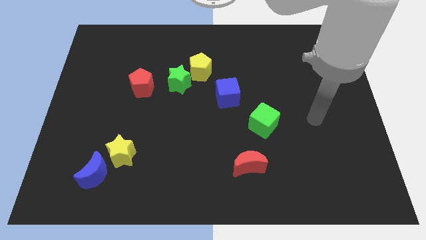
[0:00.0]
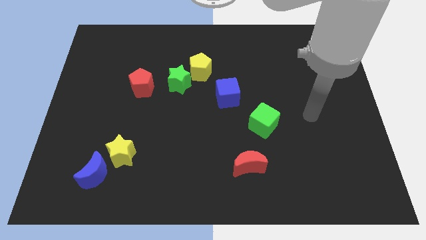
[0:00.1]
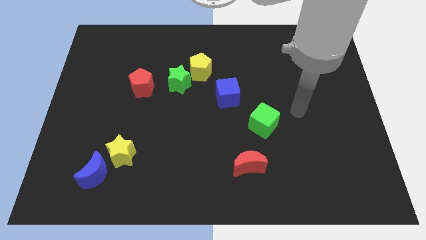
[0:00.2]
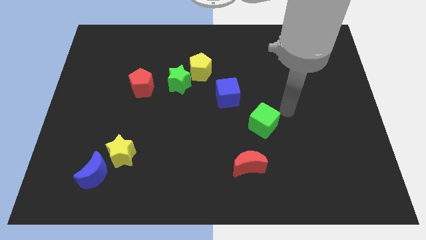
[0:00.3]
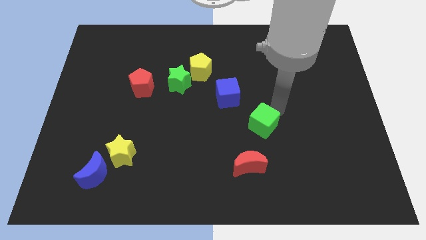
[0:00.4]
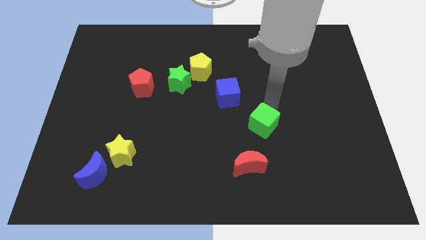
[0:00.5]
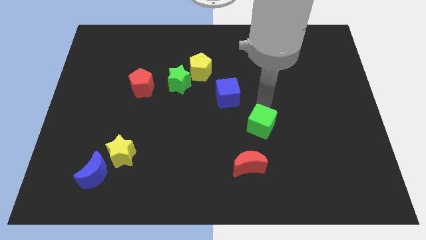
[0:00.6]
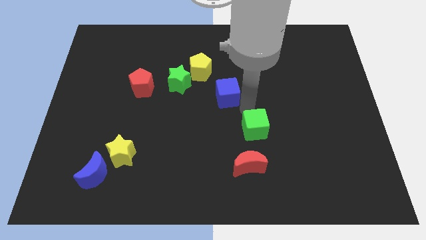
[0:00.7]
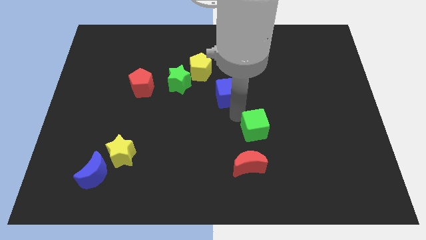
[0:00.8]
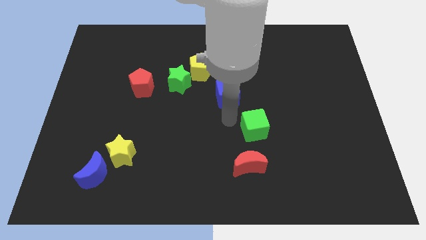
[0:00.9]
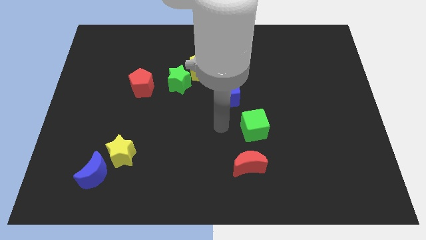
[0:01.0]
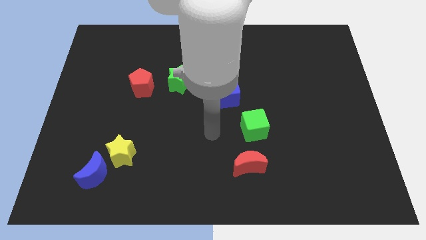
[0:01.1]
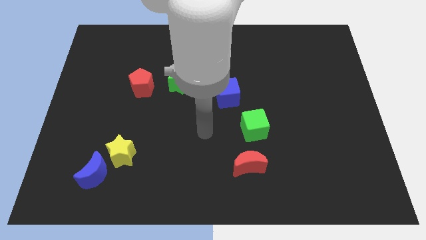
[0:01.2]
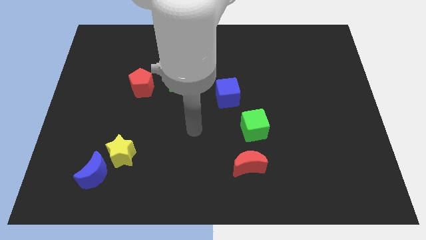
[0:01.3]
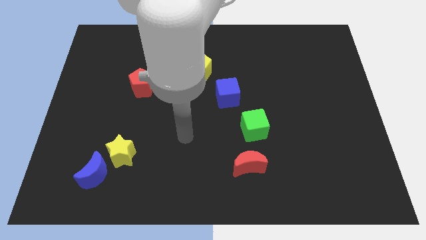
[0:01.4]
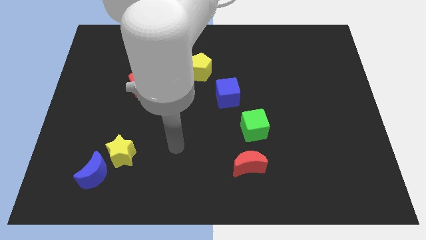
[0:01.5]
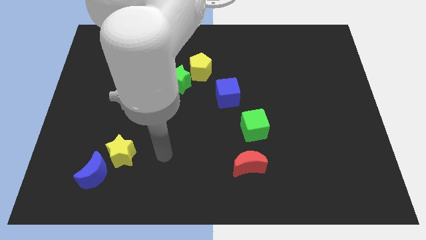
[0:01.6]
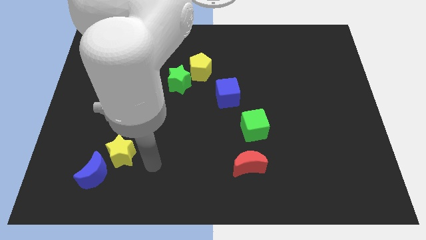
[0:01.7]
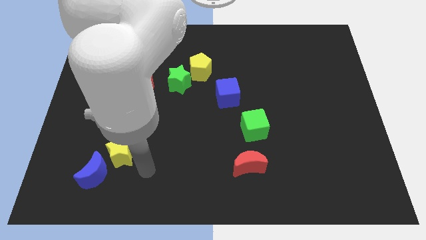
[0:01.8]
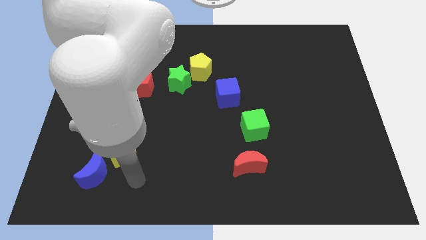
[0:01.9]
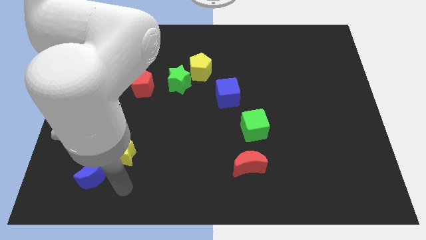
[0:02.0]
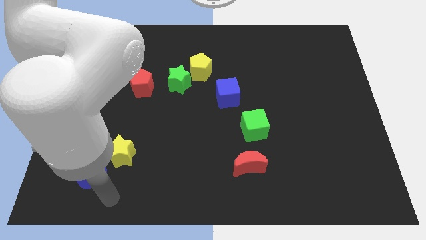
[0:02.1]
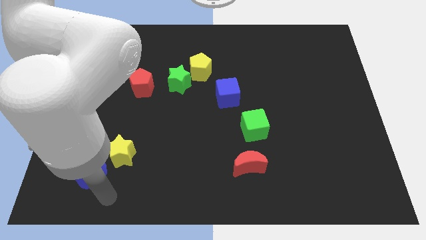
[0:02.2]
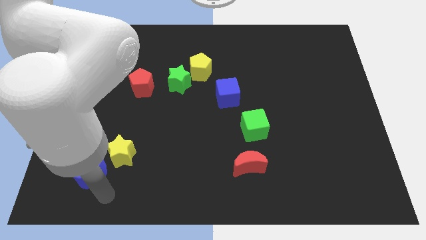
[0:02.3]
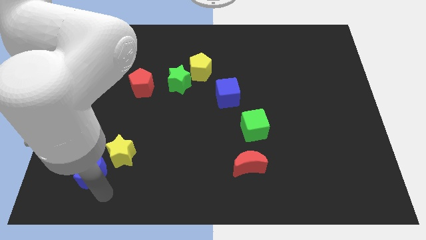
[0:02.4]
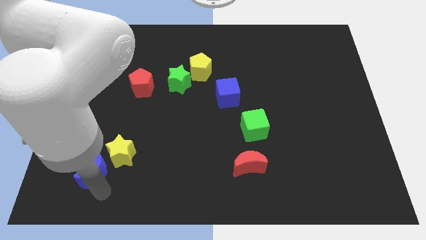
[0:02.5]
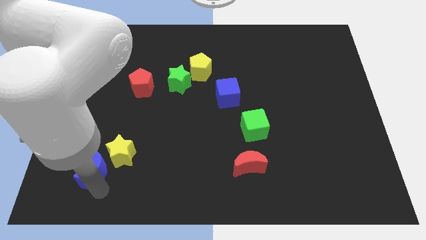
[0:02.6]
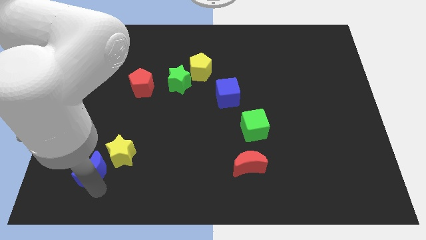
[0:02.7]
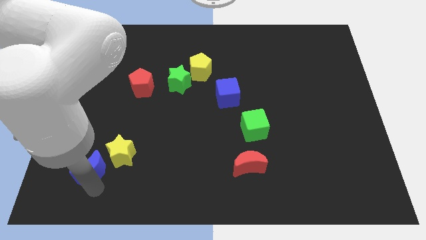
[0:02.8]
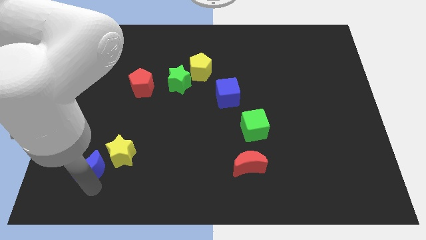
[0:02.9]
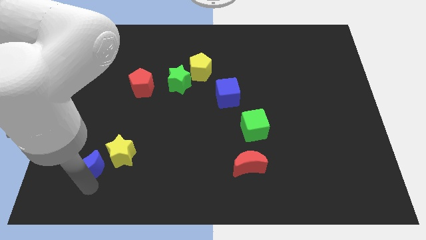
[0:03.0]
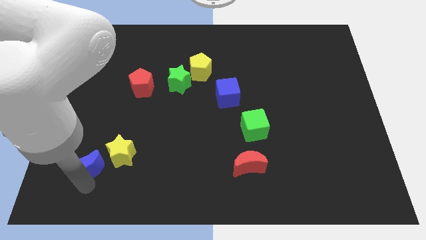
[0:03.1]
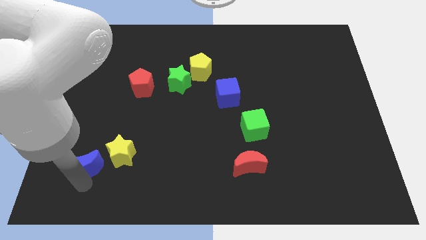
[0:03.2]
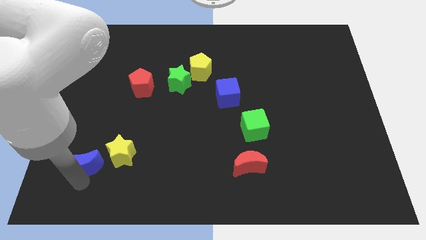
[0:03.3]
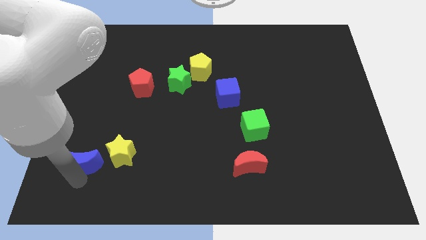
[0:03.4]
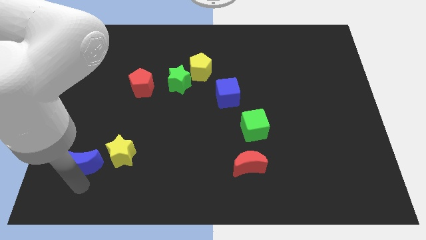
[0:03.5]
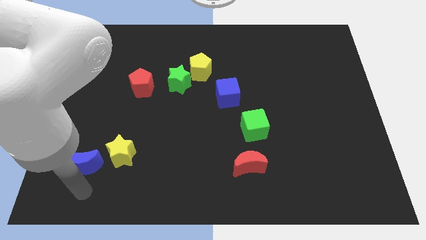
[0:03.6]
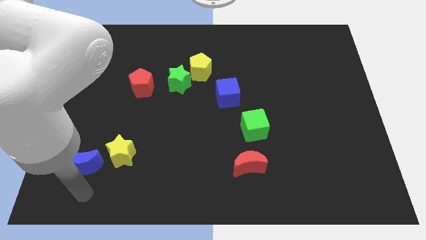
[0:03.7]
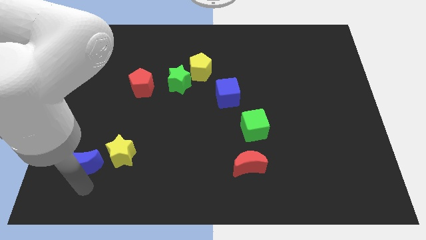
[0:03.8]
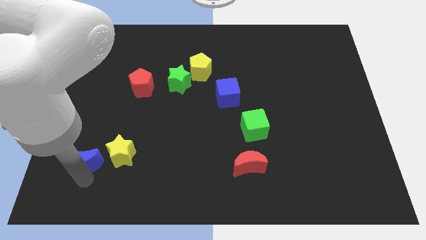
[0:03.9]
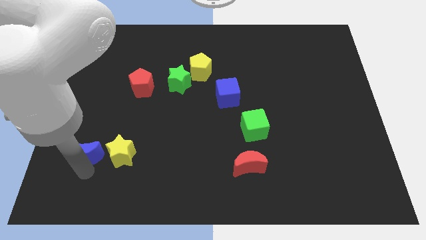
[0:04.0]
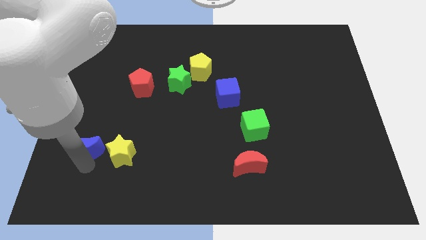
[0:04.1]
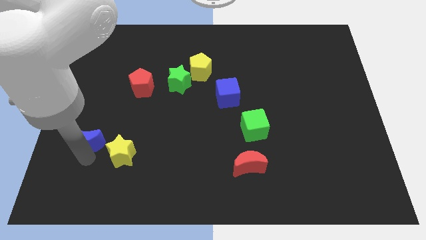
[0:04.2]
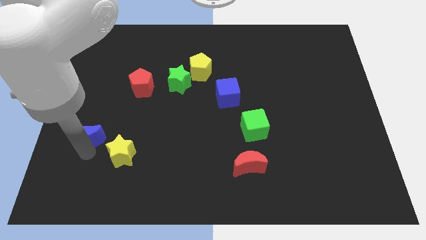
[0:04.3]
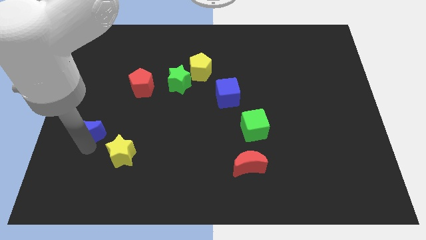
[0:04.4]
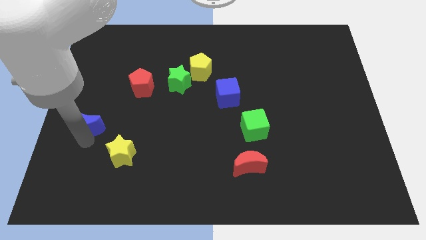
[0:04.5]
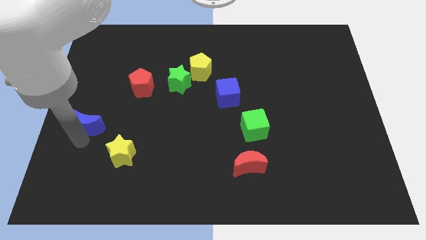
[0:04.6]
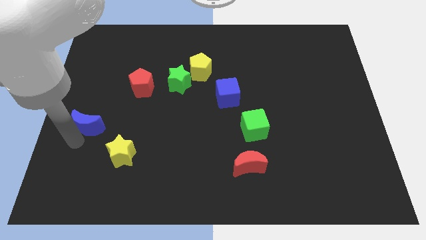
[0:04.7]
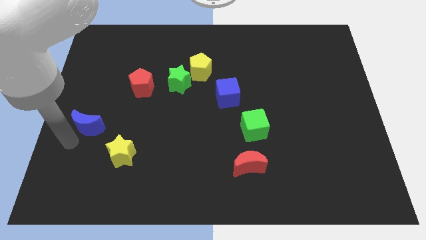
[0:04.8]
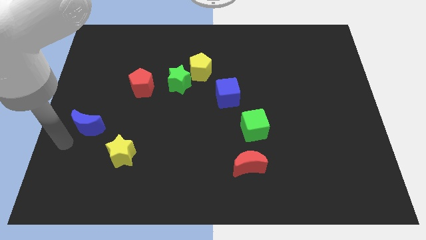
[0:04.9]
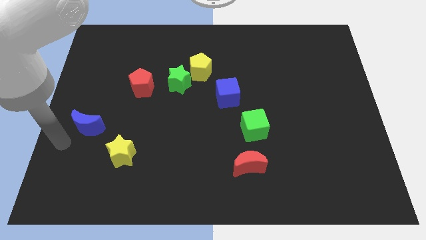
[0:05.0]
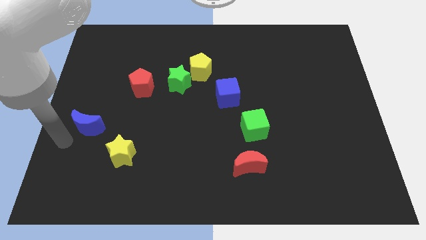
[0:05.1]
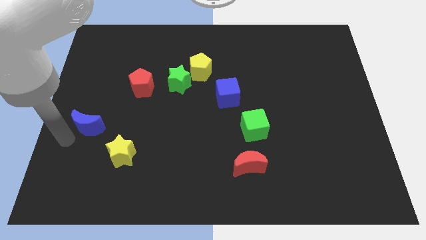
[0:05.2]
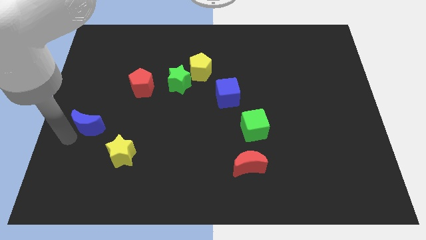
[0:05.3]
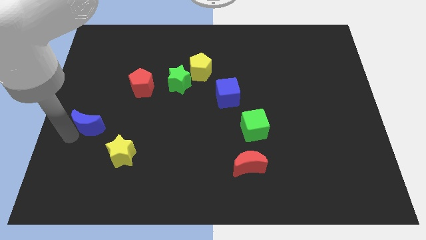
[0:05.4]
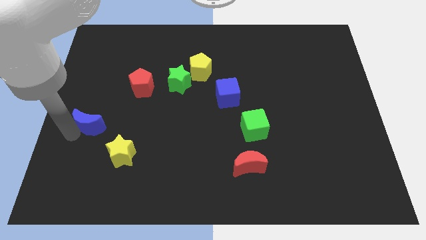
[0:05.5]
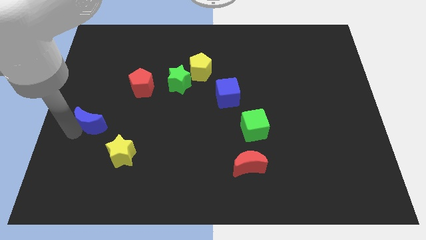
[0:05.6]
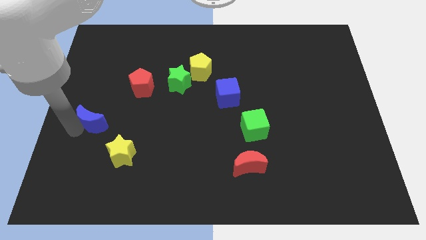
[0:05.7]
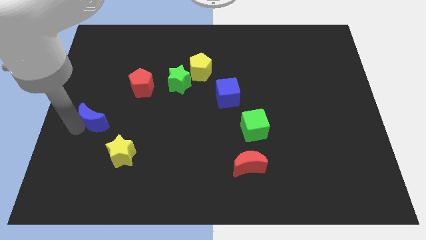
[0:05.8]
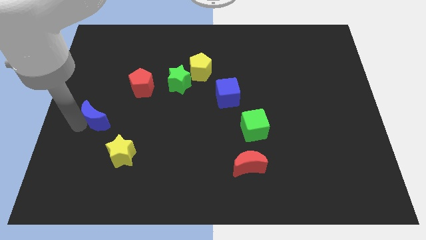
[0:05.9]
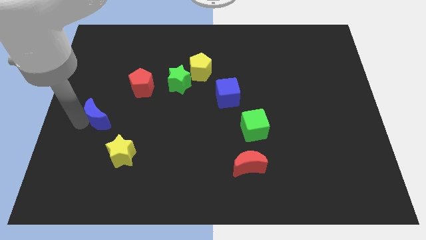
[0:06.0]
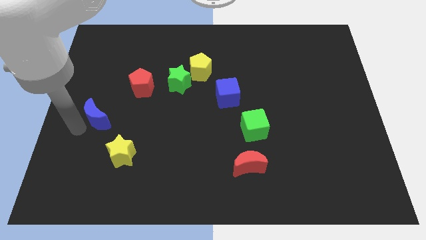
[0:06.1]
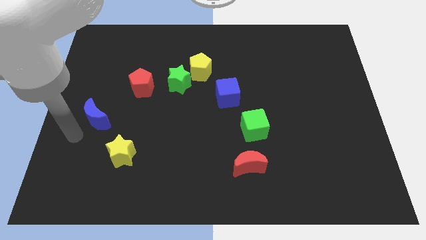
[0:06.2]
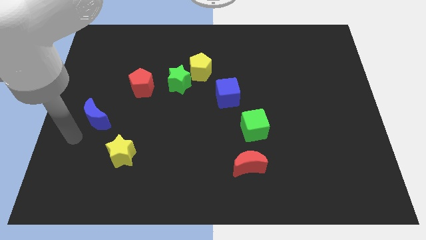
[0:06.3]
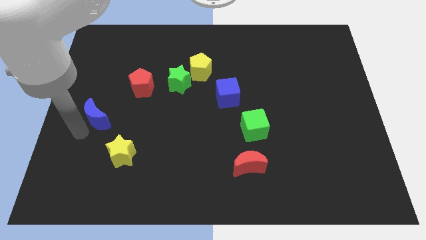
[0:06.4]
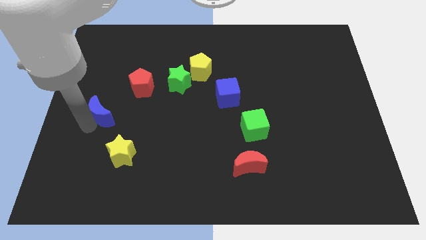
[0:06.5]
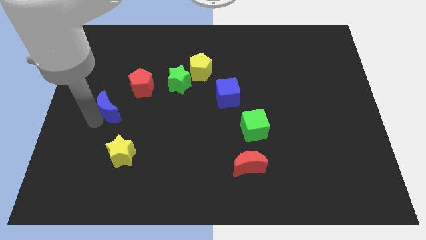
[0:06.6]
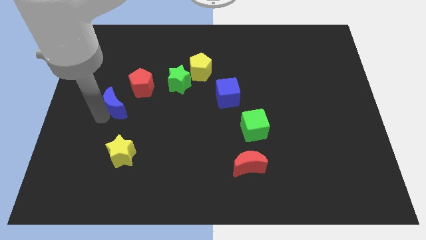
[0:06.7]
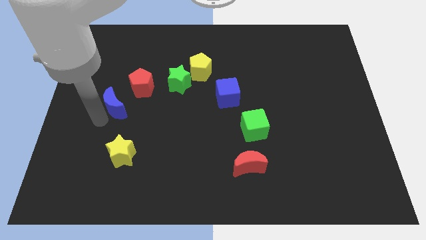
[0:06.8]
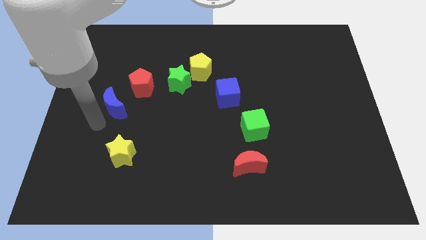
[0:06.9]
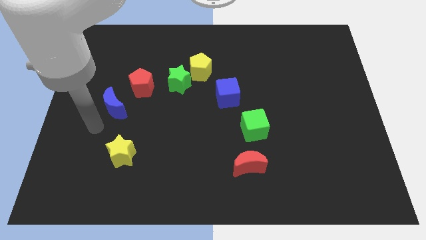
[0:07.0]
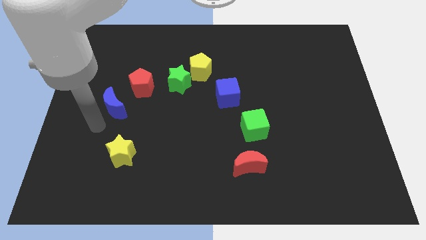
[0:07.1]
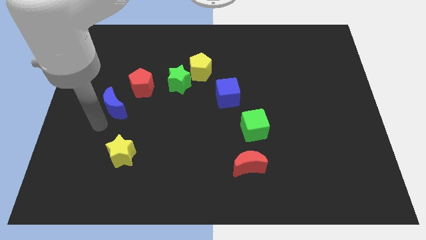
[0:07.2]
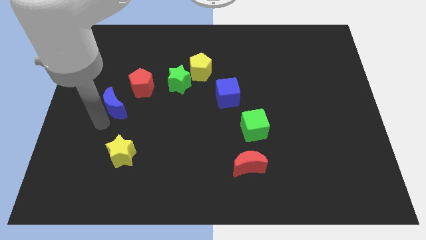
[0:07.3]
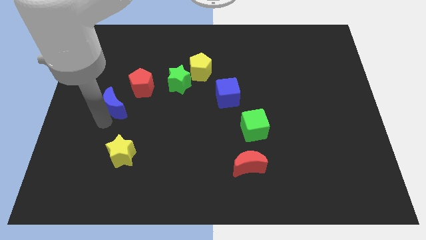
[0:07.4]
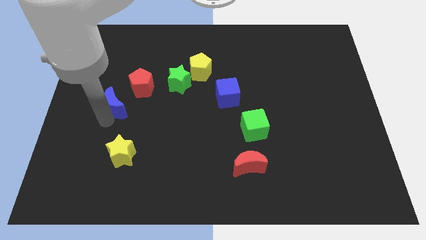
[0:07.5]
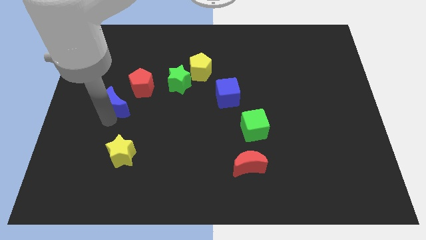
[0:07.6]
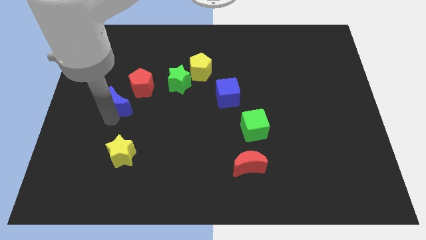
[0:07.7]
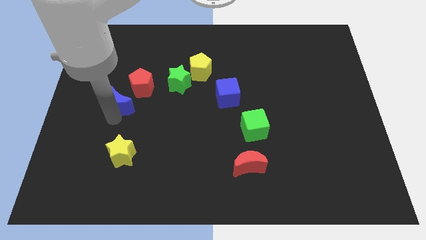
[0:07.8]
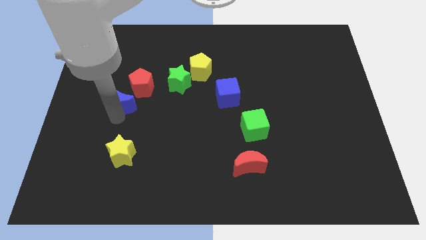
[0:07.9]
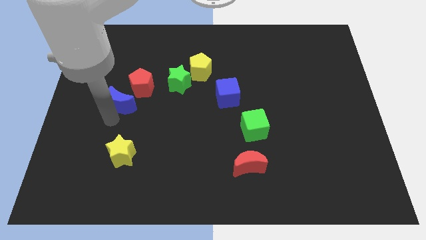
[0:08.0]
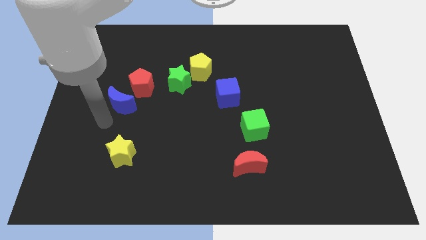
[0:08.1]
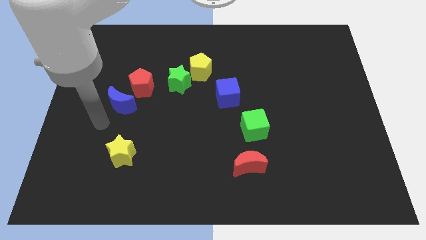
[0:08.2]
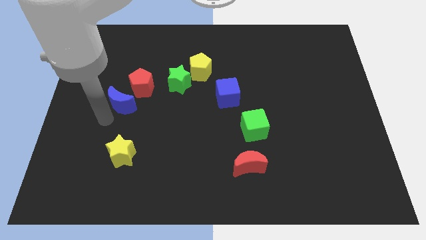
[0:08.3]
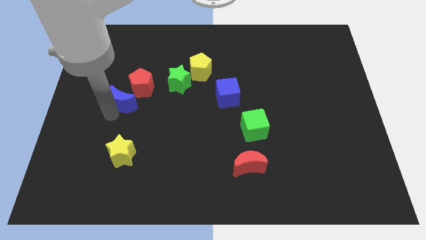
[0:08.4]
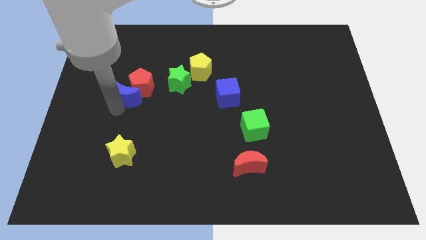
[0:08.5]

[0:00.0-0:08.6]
slide the blue moon close to the red pentagon
